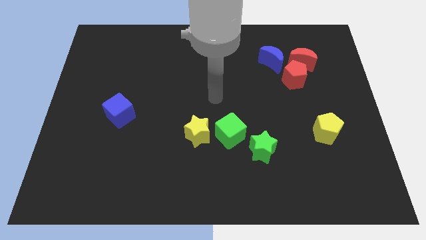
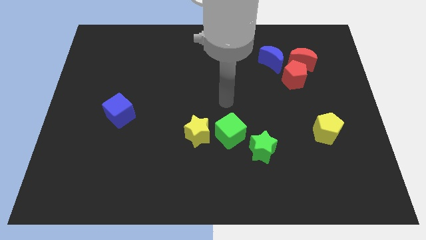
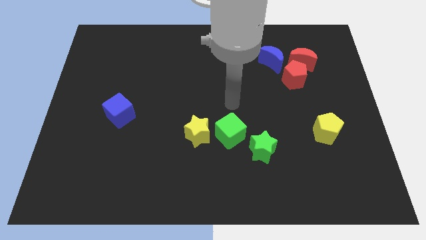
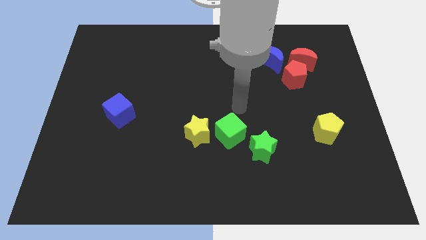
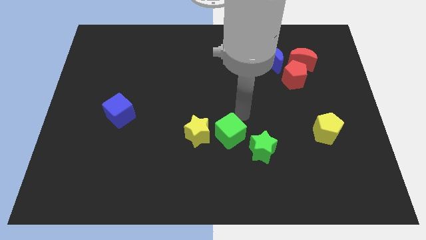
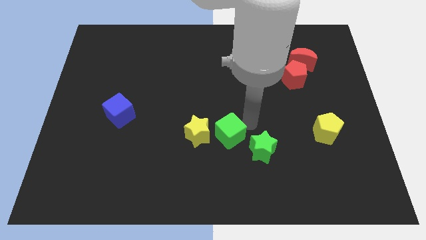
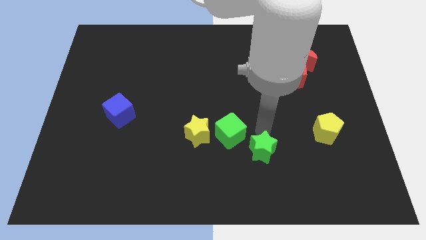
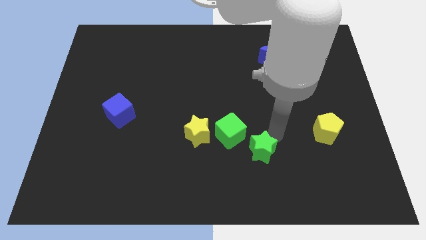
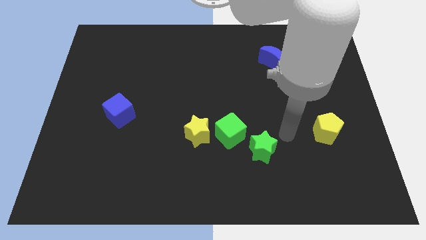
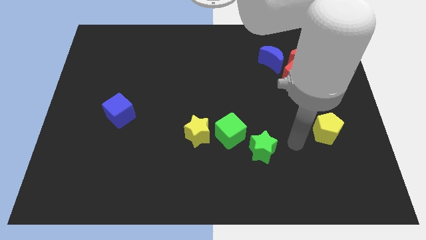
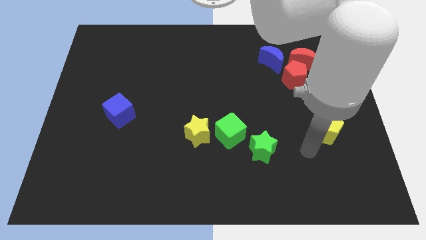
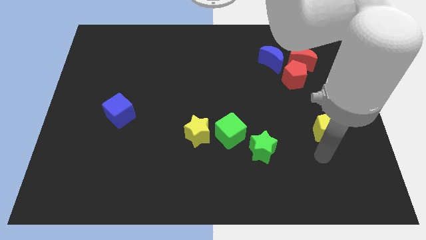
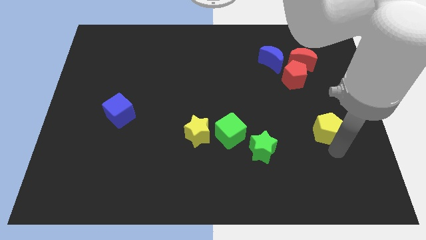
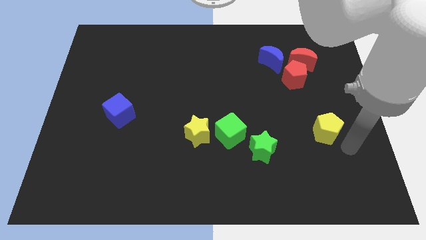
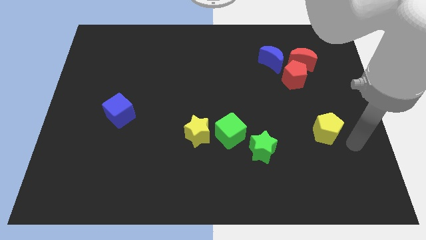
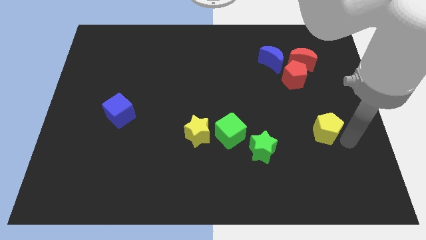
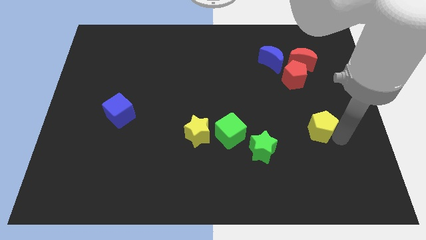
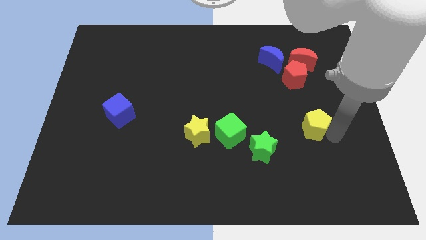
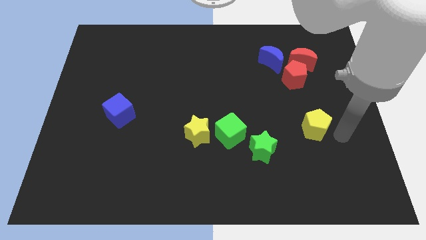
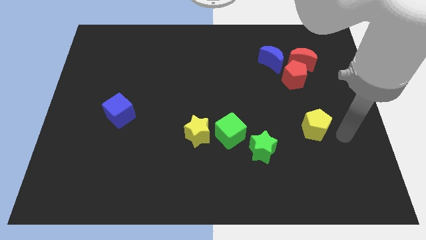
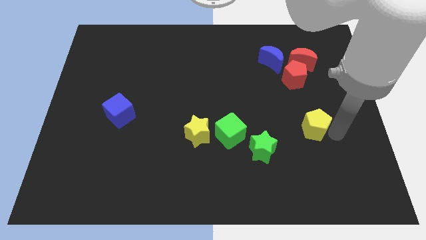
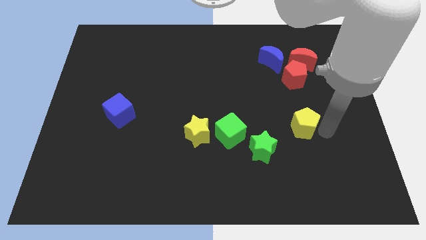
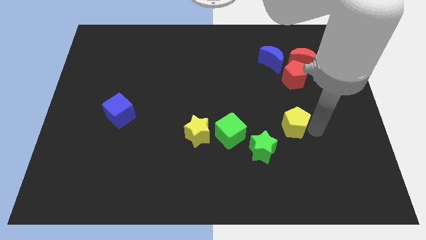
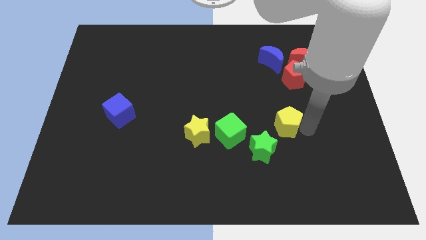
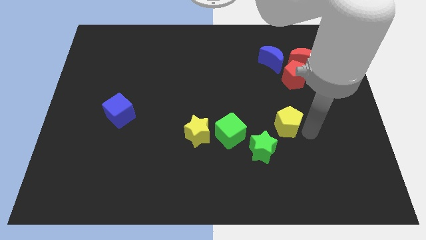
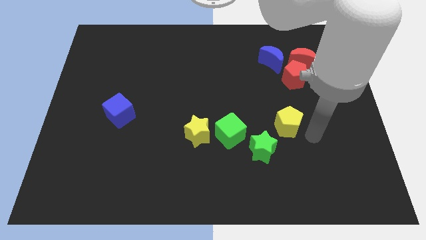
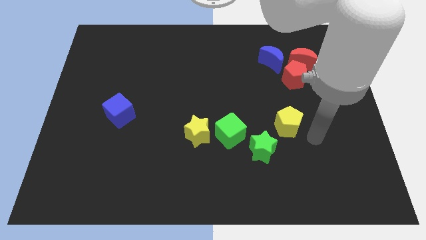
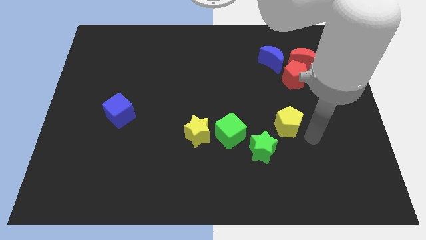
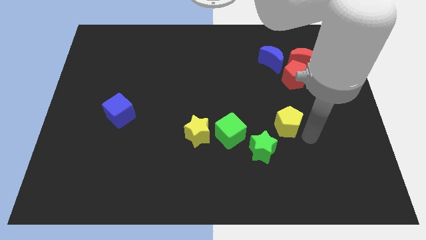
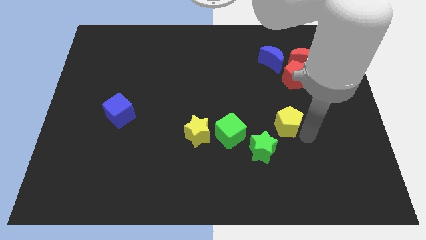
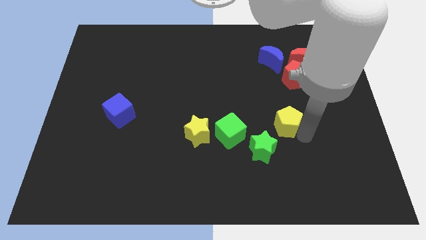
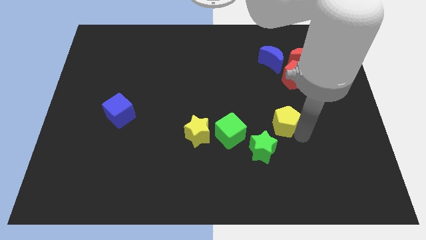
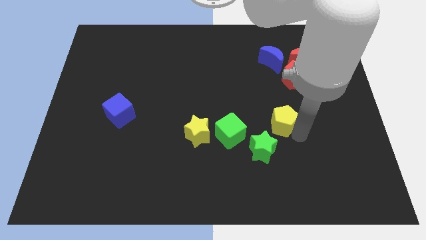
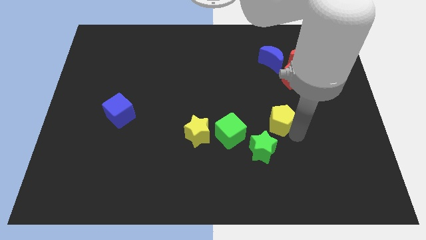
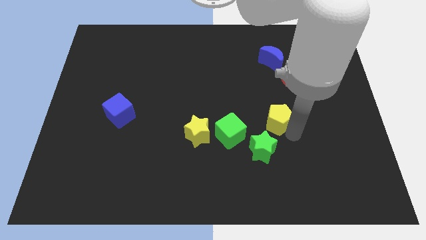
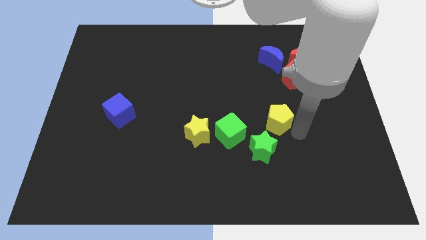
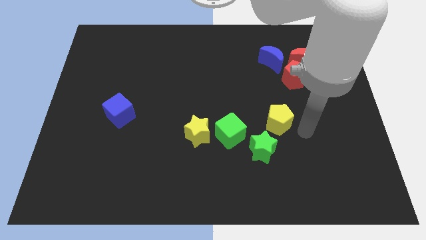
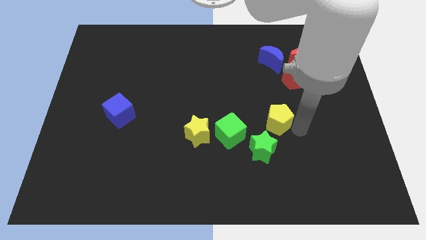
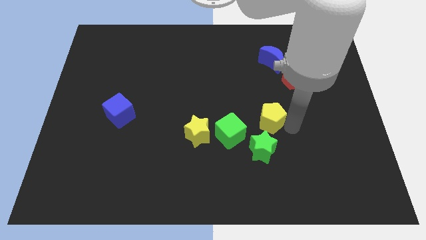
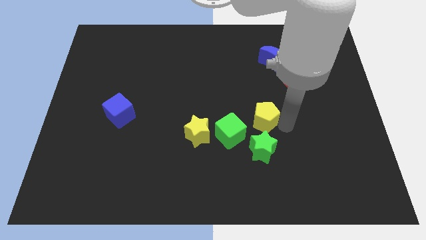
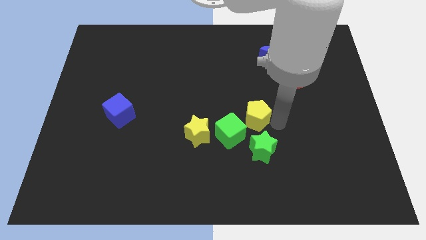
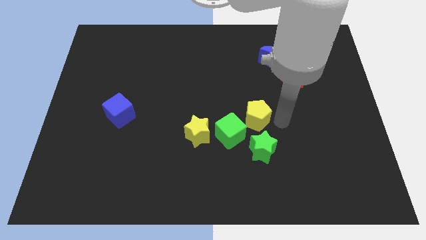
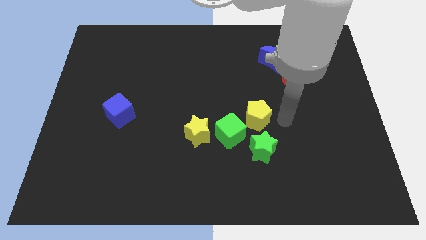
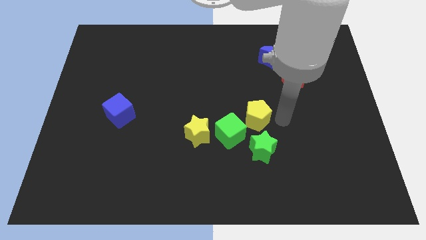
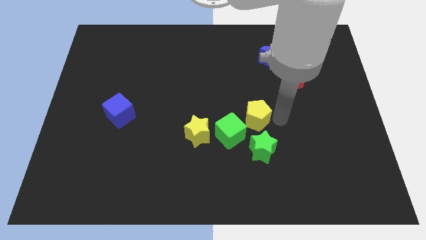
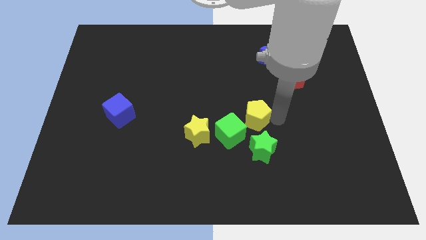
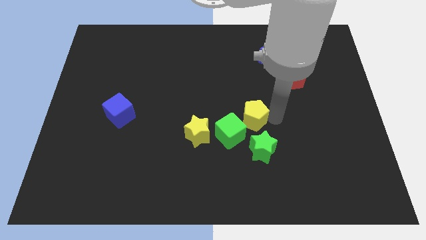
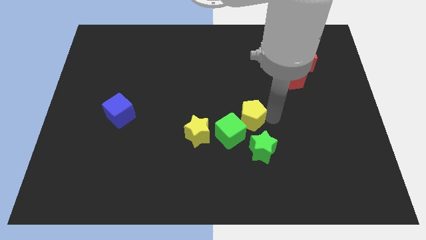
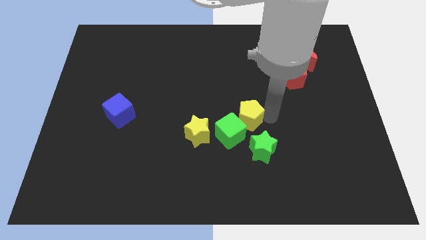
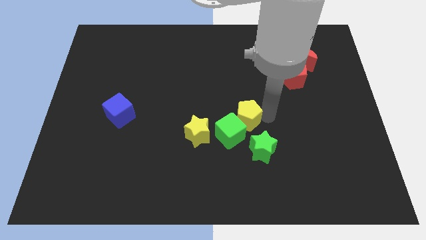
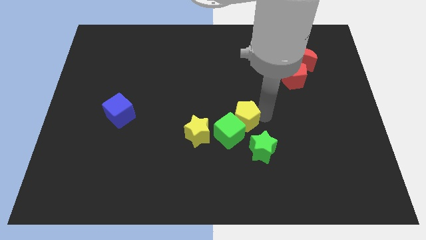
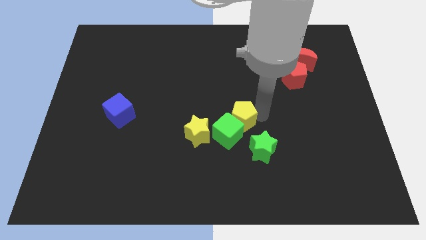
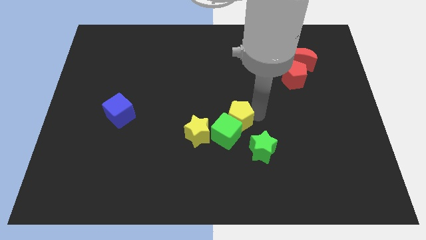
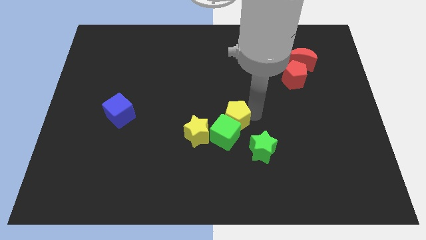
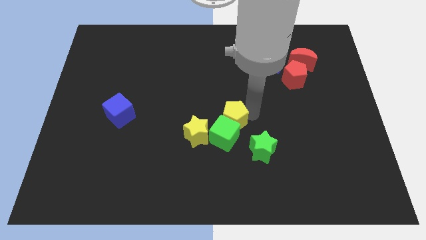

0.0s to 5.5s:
push the yellow pentagon left

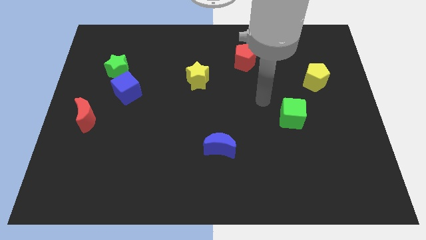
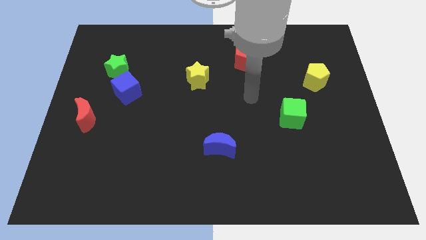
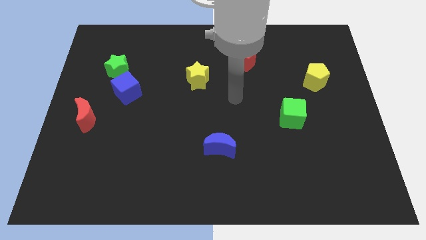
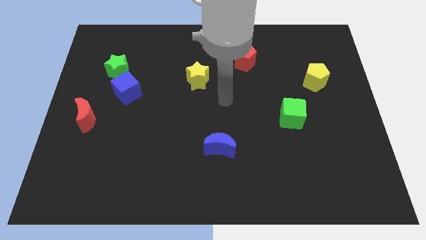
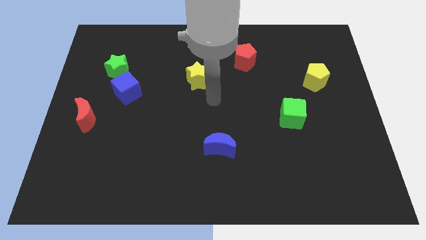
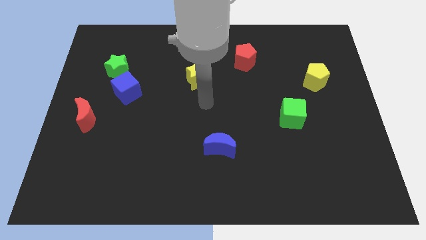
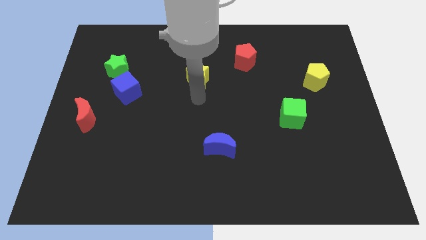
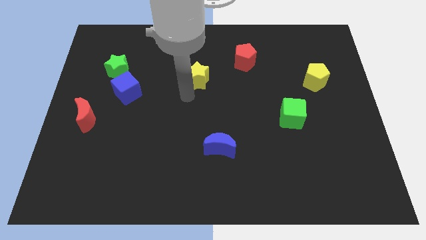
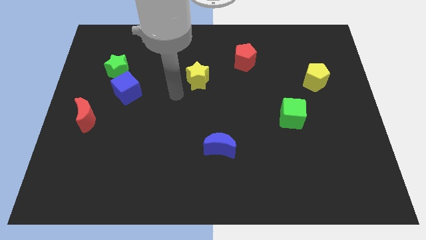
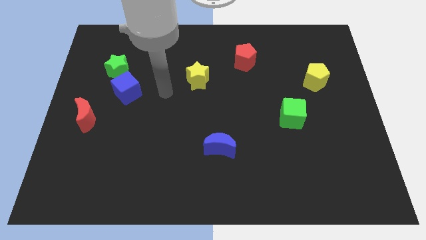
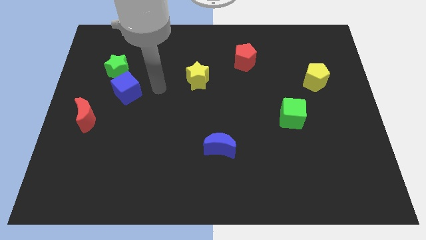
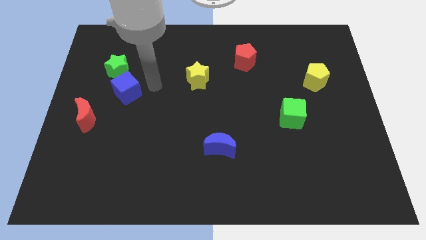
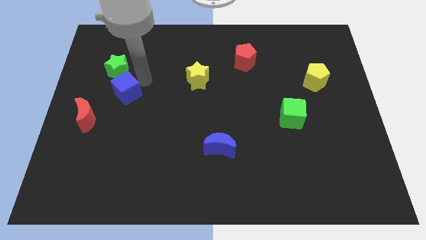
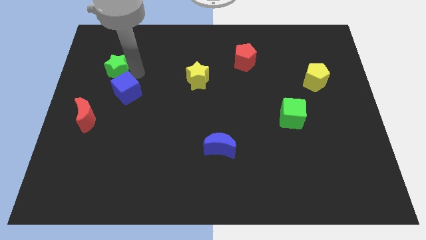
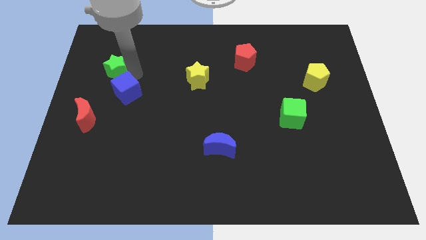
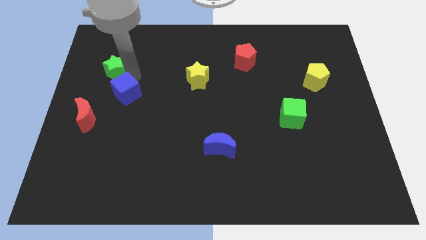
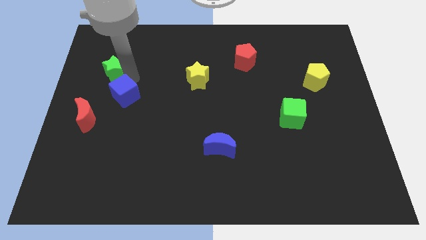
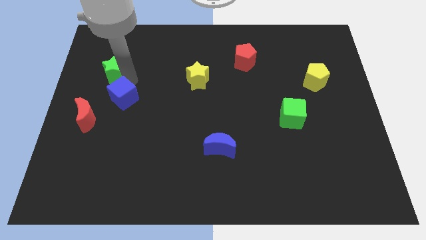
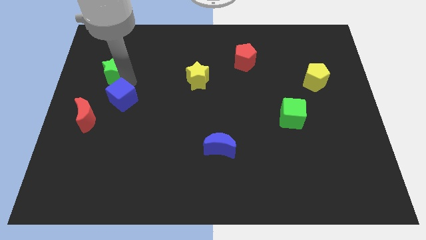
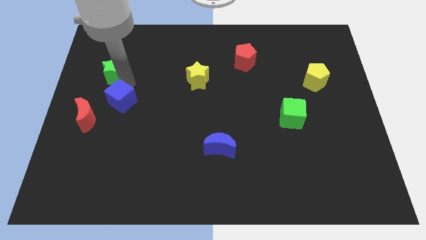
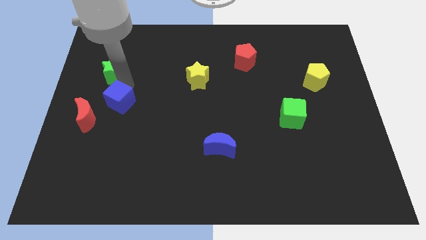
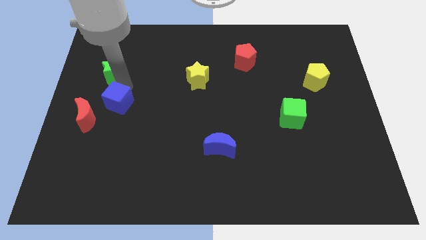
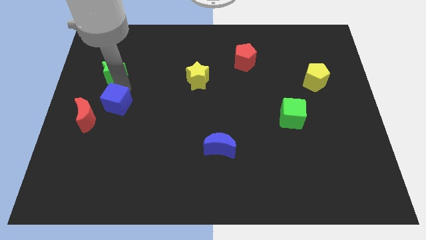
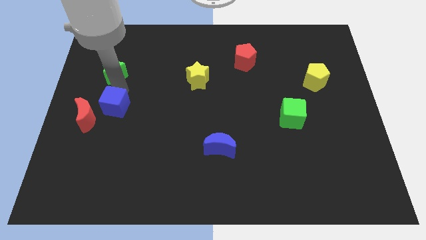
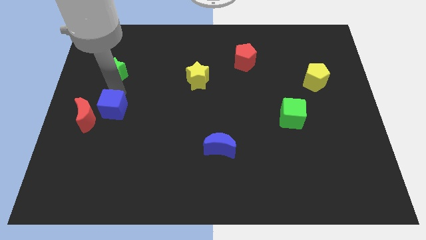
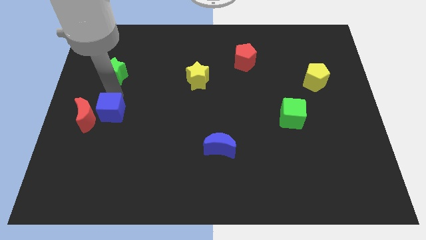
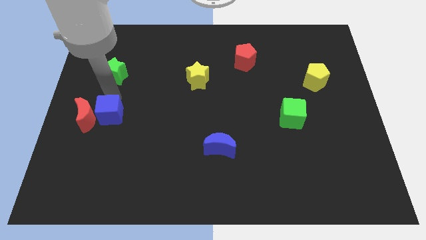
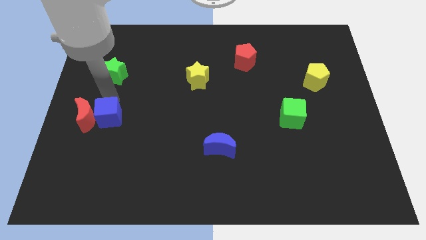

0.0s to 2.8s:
slightly move the blue cube down
